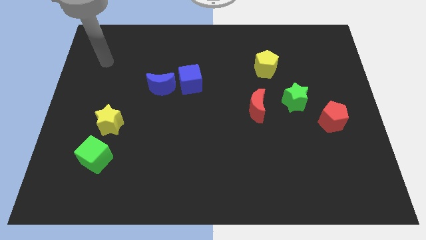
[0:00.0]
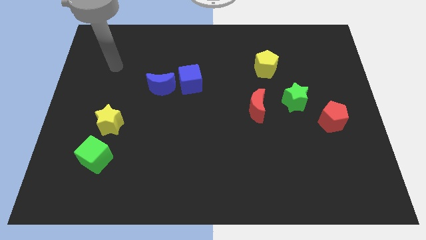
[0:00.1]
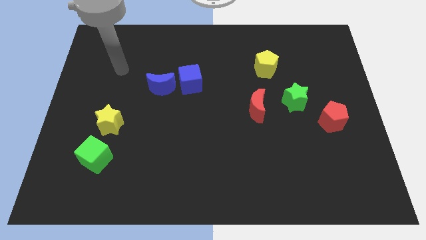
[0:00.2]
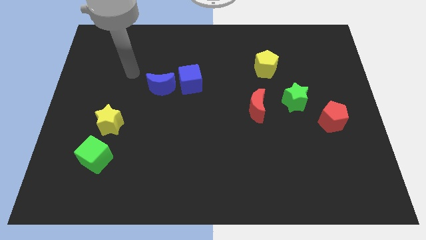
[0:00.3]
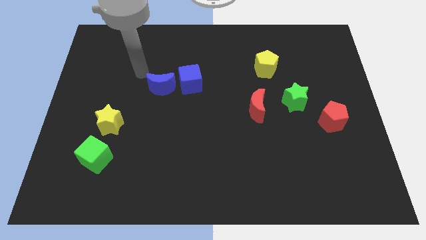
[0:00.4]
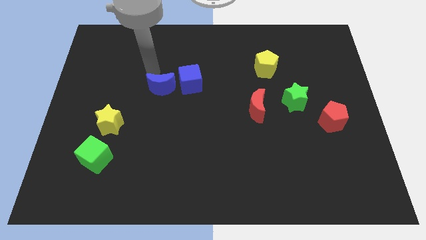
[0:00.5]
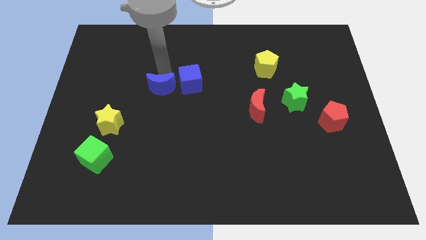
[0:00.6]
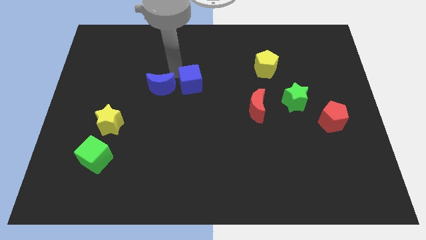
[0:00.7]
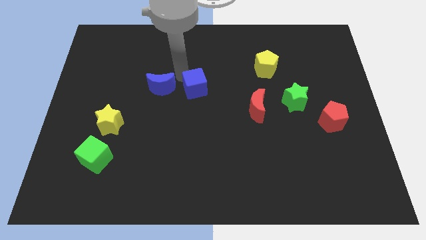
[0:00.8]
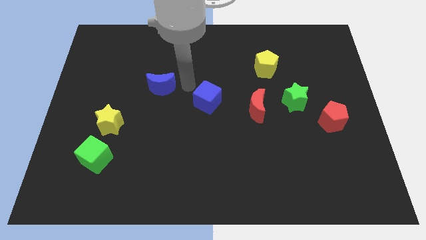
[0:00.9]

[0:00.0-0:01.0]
pull the blue moon apart from the blue cube

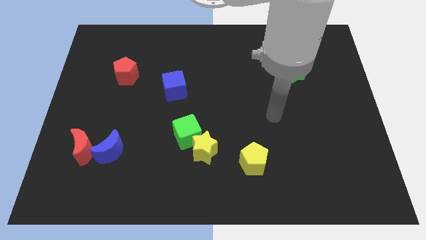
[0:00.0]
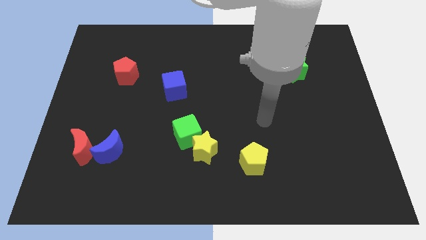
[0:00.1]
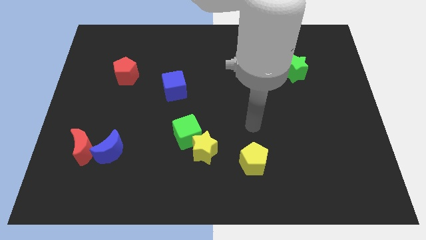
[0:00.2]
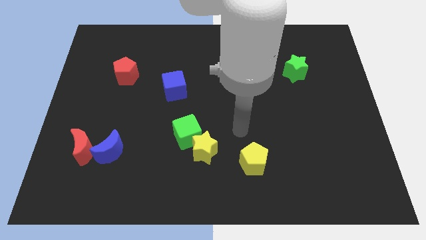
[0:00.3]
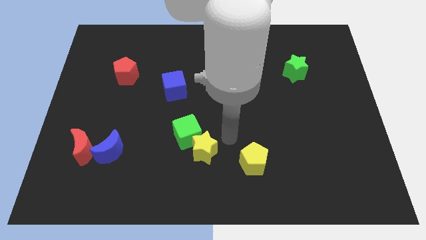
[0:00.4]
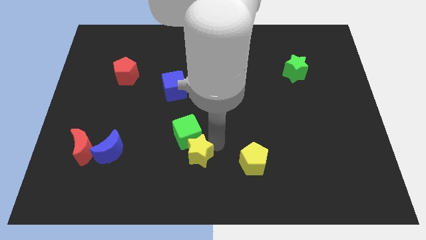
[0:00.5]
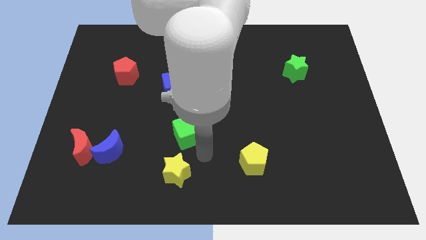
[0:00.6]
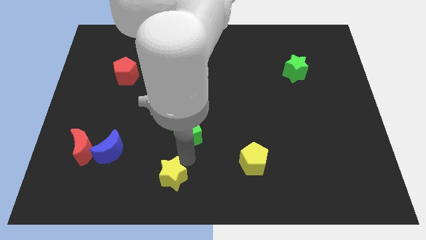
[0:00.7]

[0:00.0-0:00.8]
separate the green cube from the yellow star

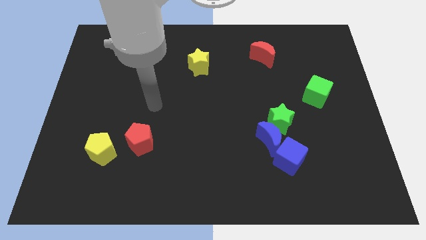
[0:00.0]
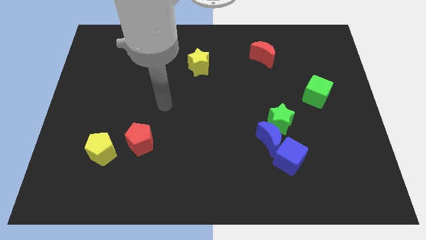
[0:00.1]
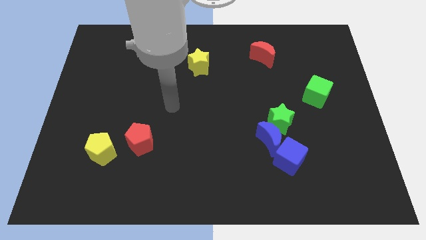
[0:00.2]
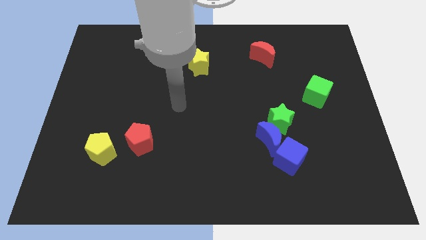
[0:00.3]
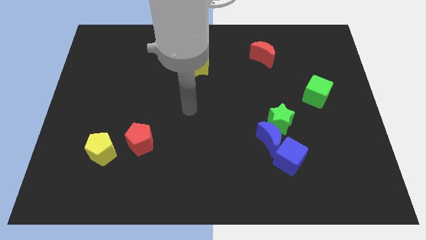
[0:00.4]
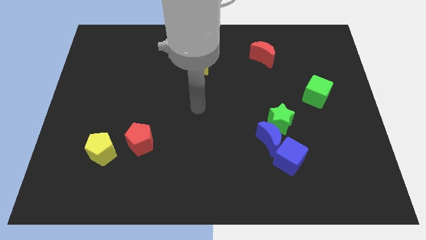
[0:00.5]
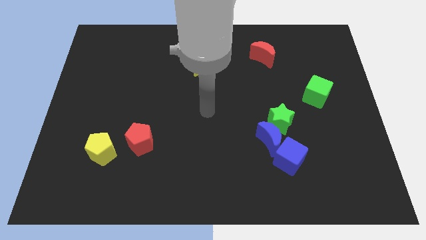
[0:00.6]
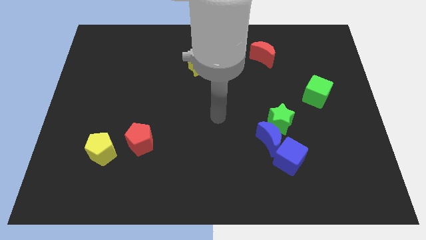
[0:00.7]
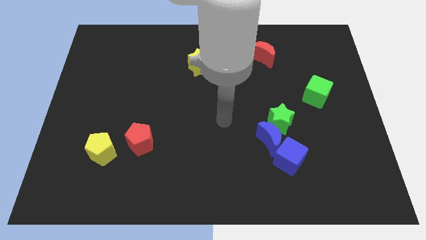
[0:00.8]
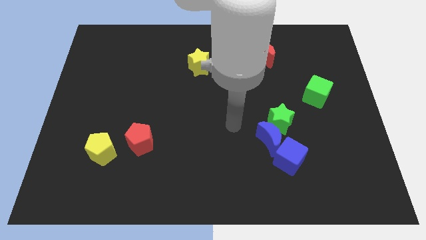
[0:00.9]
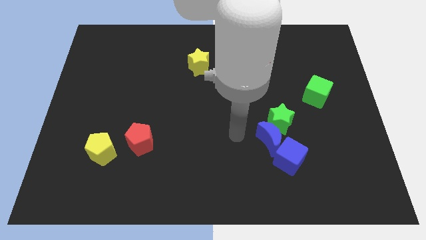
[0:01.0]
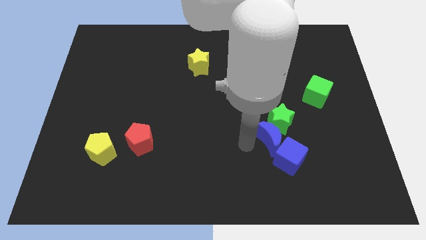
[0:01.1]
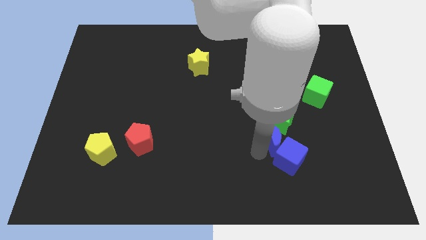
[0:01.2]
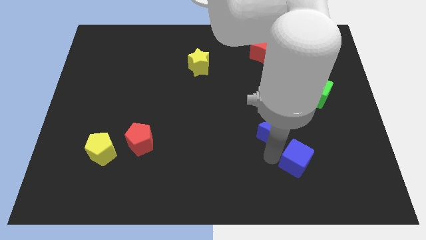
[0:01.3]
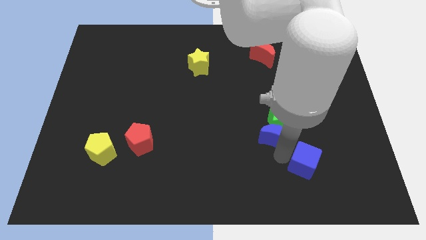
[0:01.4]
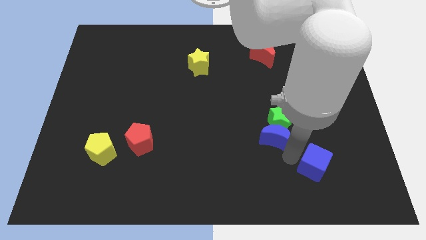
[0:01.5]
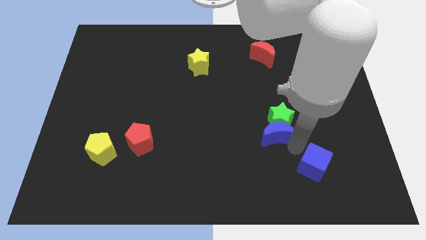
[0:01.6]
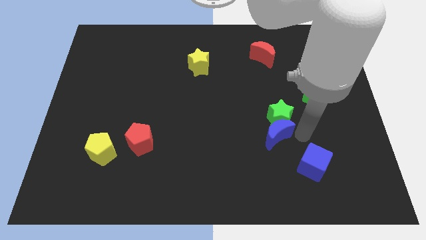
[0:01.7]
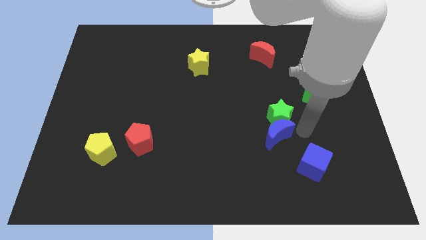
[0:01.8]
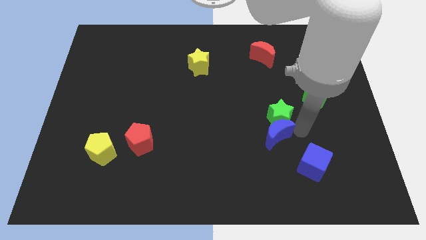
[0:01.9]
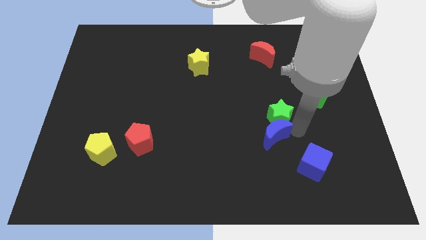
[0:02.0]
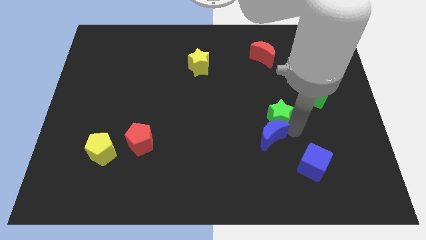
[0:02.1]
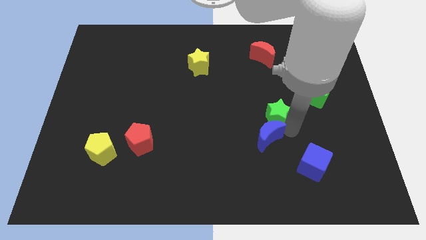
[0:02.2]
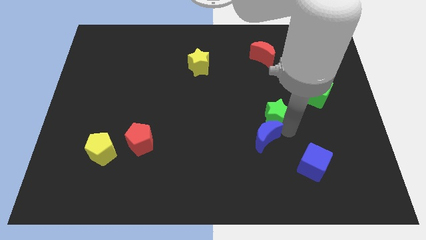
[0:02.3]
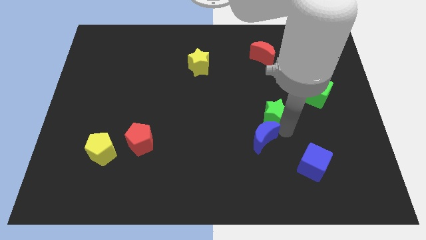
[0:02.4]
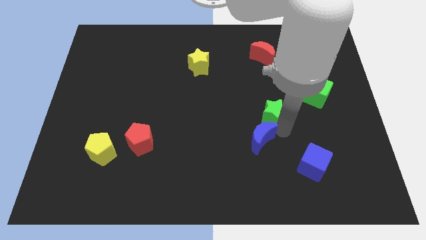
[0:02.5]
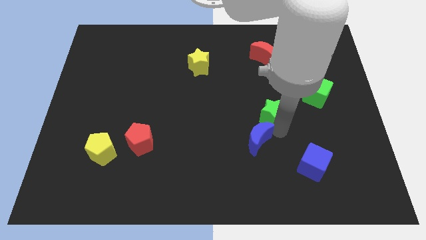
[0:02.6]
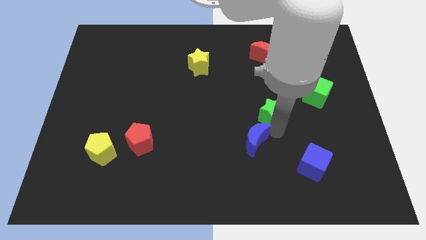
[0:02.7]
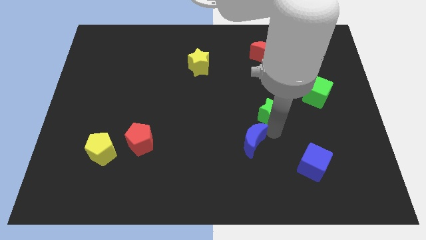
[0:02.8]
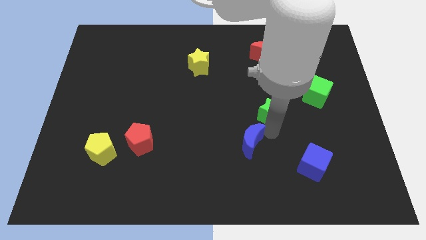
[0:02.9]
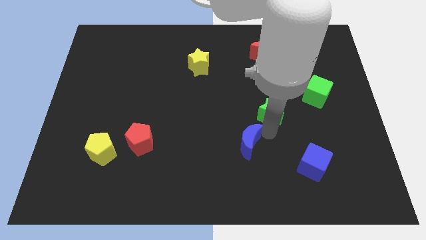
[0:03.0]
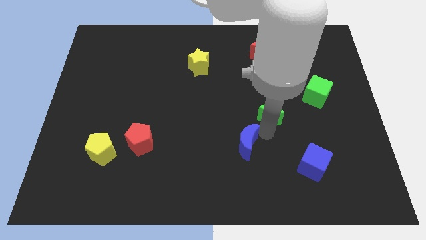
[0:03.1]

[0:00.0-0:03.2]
separate the blue moon from the green star and blue cube

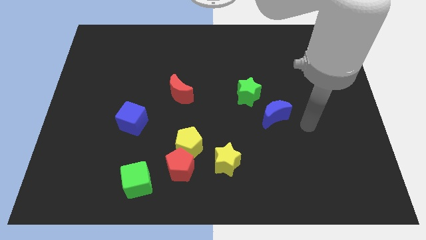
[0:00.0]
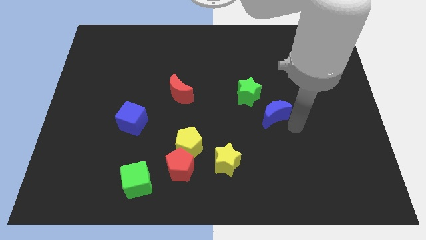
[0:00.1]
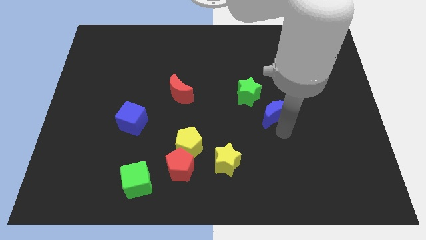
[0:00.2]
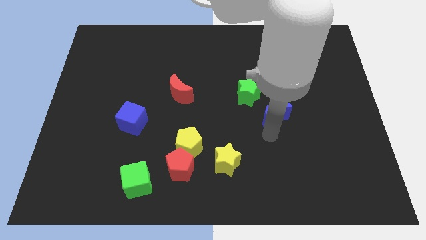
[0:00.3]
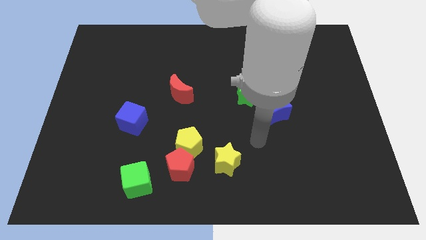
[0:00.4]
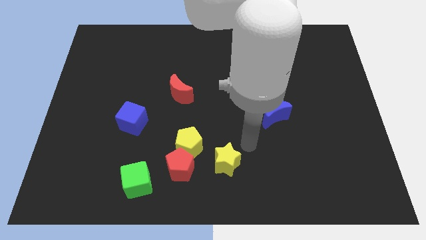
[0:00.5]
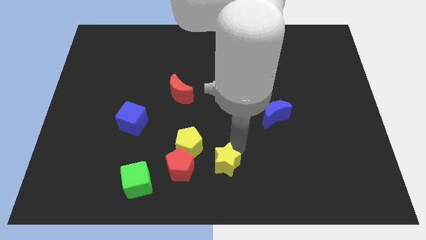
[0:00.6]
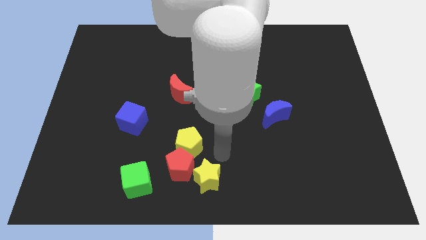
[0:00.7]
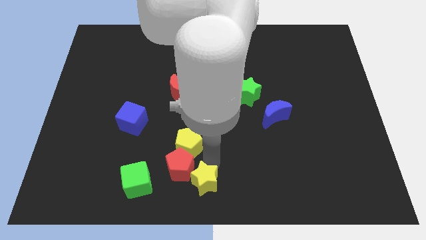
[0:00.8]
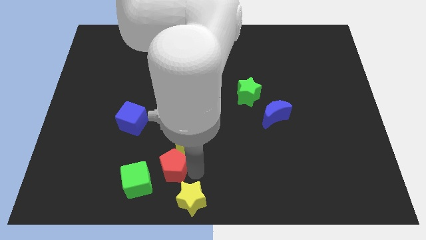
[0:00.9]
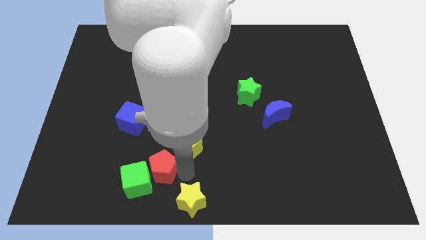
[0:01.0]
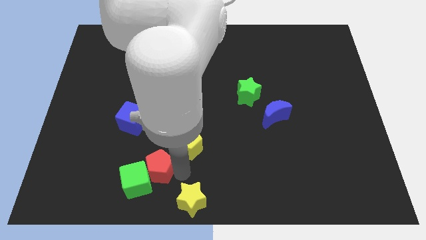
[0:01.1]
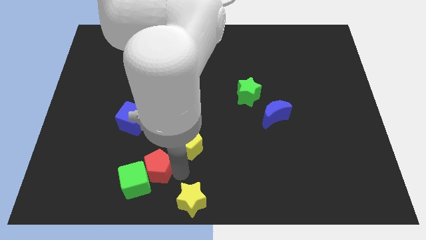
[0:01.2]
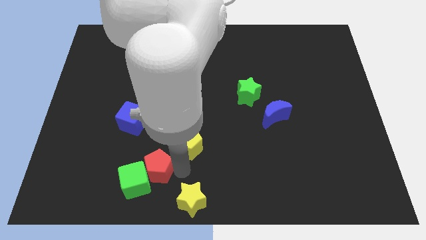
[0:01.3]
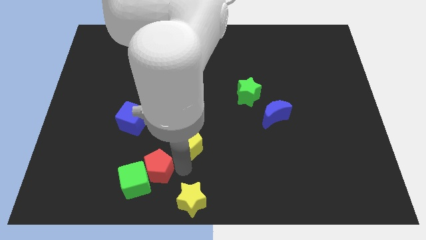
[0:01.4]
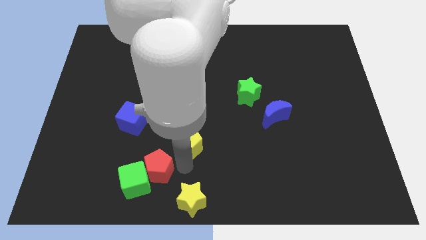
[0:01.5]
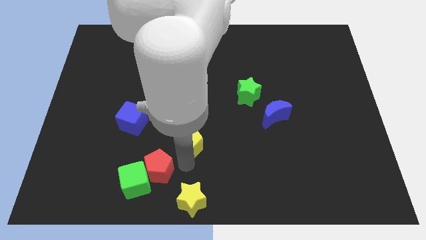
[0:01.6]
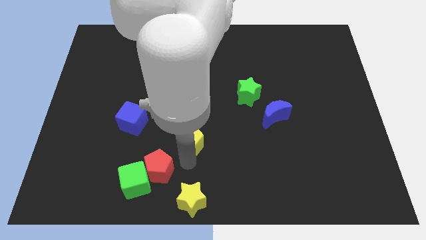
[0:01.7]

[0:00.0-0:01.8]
separate the yellow pentagon from the red pentagon and yellow star

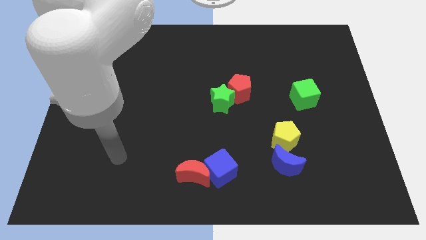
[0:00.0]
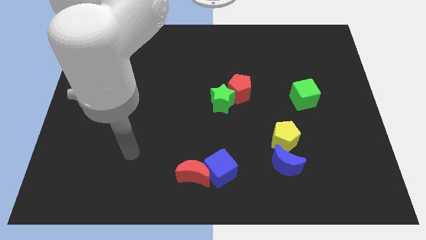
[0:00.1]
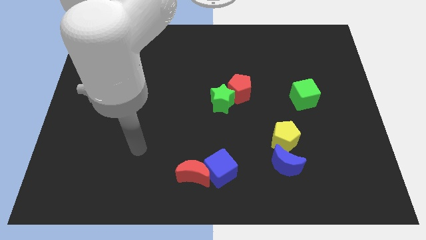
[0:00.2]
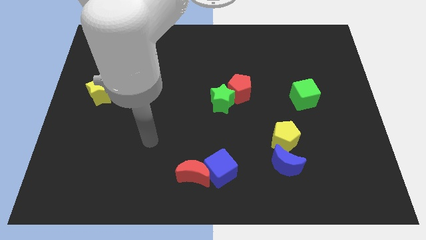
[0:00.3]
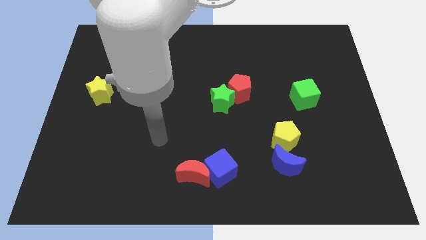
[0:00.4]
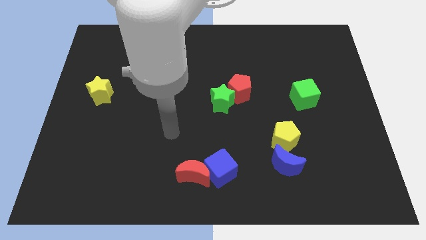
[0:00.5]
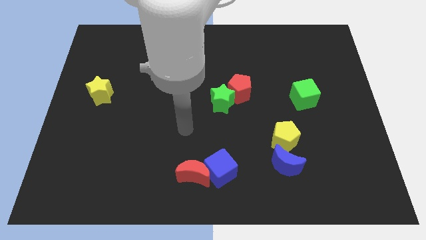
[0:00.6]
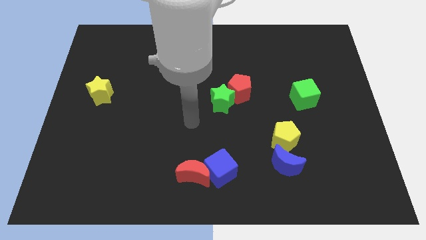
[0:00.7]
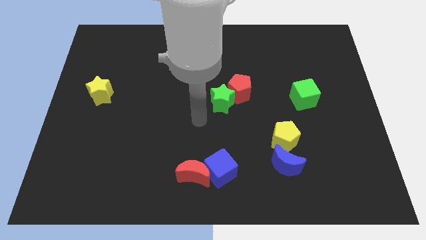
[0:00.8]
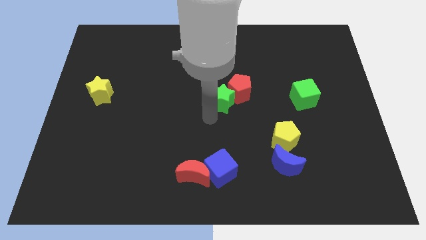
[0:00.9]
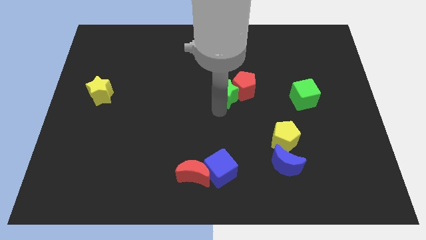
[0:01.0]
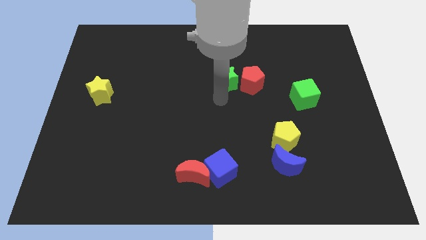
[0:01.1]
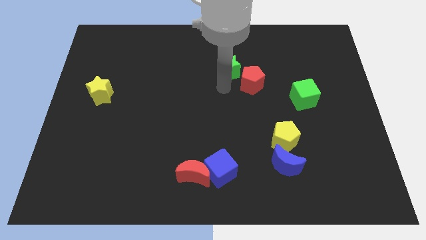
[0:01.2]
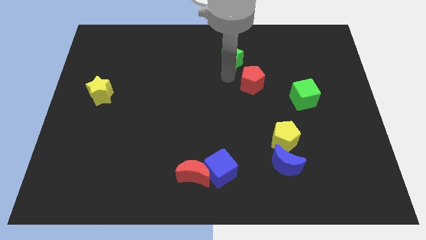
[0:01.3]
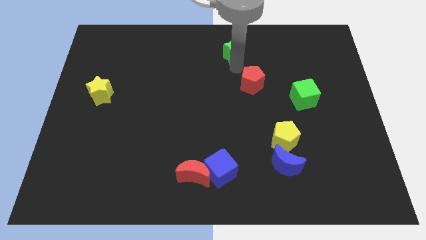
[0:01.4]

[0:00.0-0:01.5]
pull the red pentagon apart from the green star

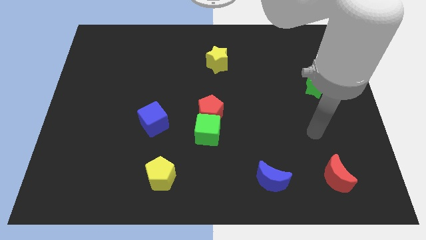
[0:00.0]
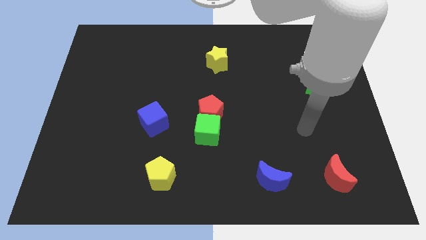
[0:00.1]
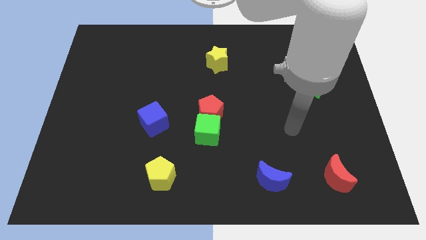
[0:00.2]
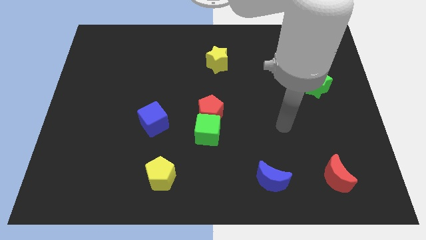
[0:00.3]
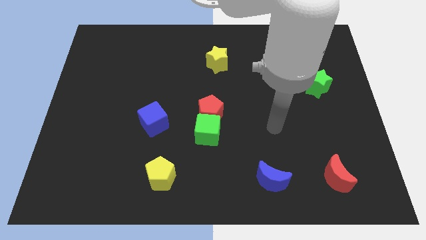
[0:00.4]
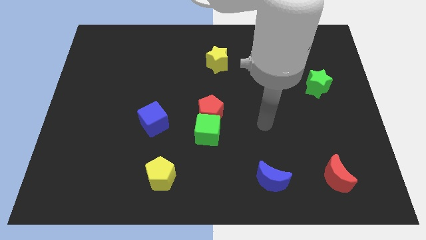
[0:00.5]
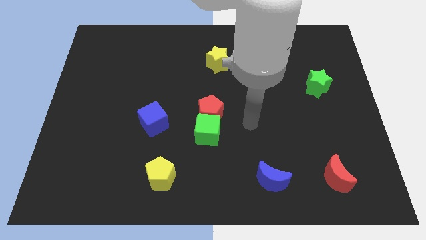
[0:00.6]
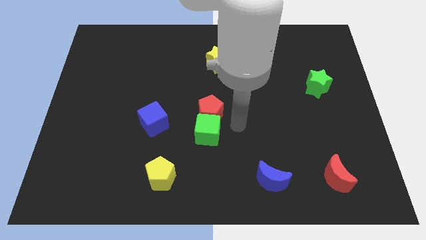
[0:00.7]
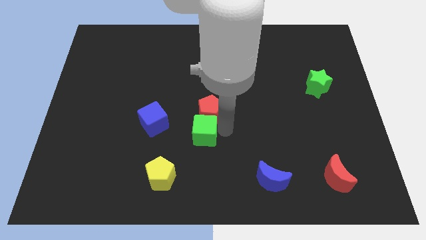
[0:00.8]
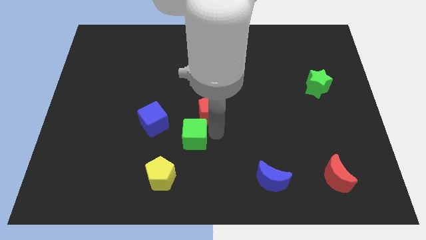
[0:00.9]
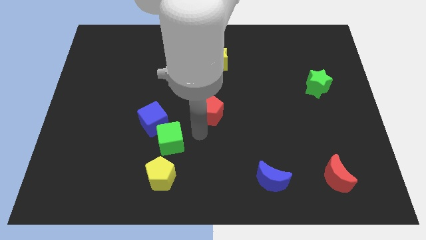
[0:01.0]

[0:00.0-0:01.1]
pull the red pentagon apart from the green cube
